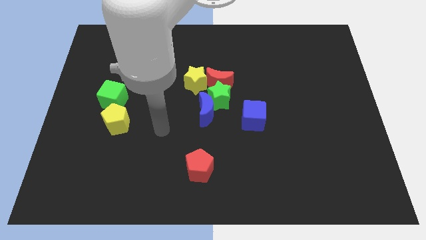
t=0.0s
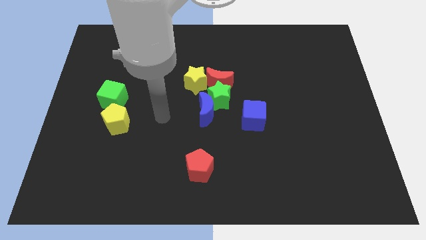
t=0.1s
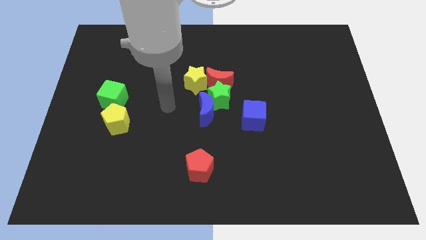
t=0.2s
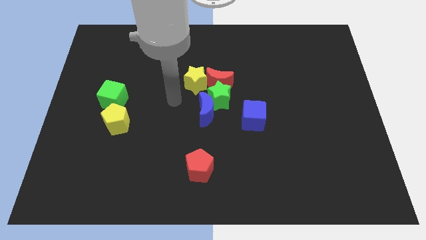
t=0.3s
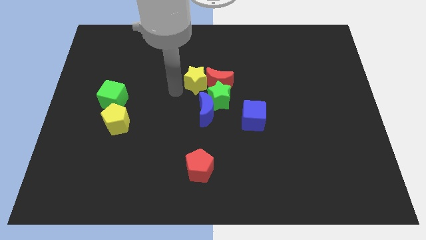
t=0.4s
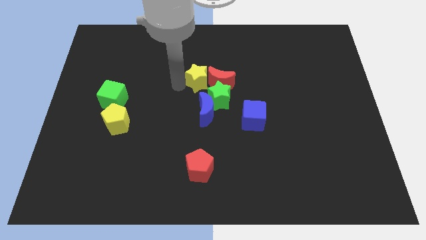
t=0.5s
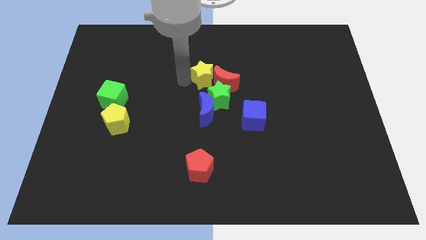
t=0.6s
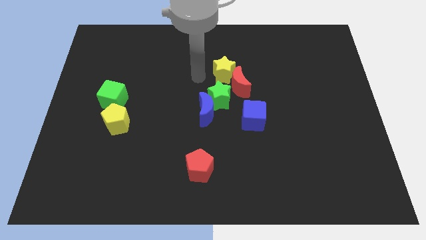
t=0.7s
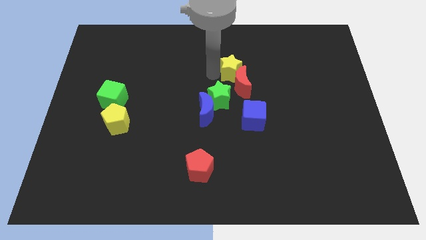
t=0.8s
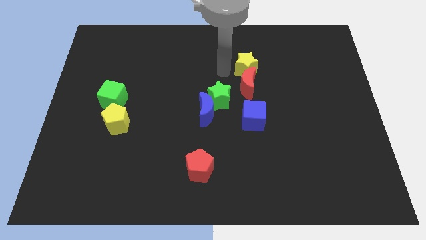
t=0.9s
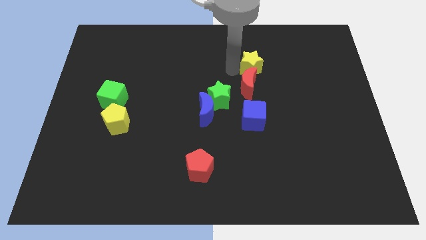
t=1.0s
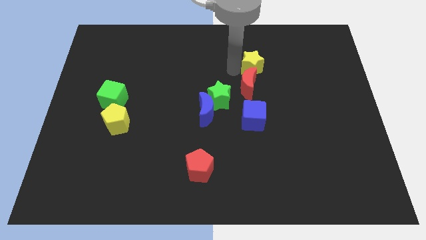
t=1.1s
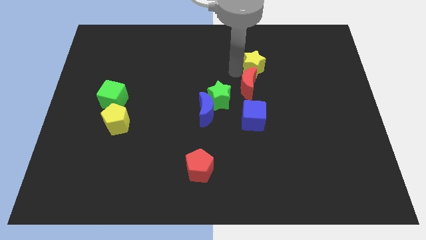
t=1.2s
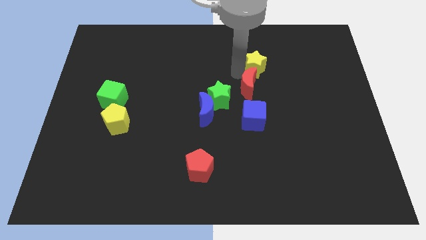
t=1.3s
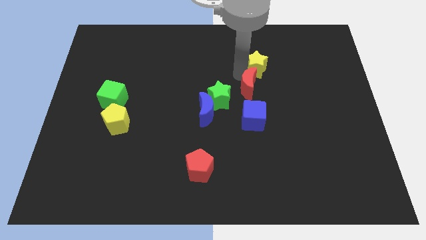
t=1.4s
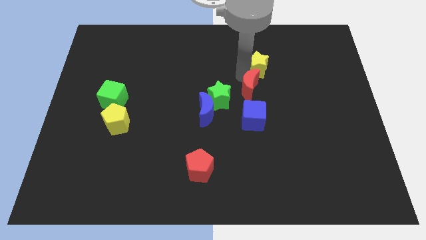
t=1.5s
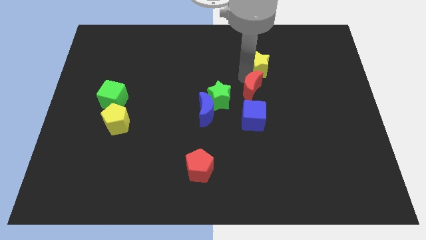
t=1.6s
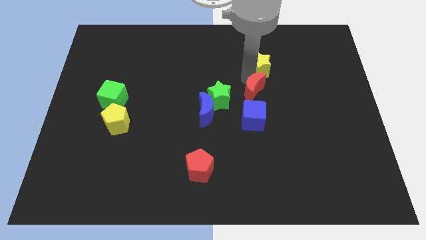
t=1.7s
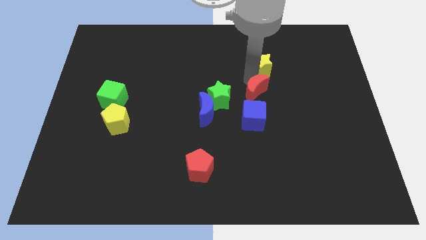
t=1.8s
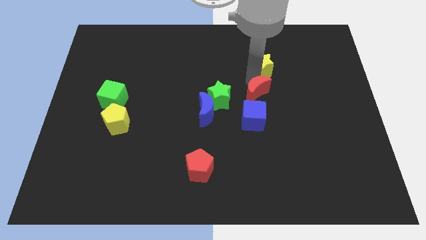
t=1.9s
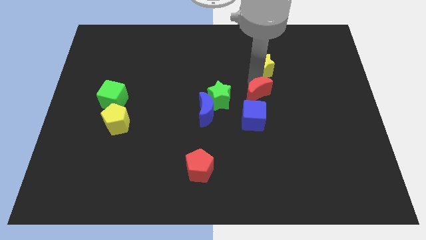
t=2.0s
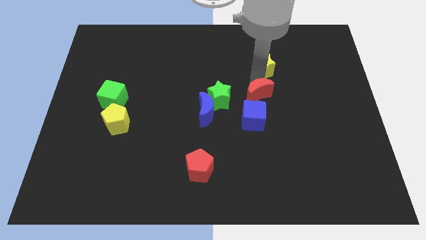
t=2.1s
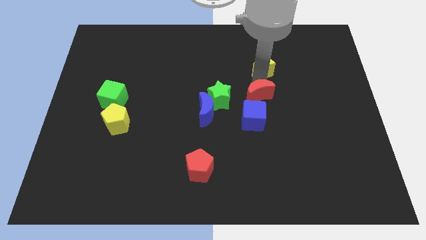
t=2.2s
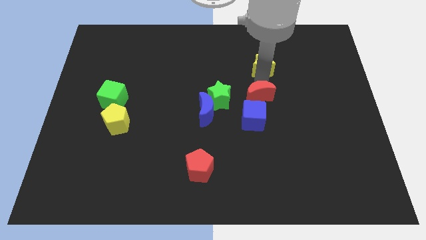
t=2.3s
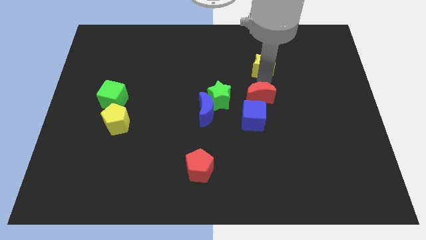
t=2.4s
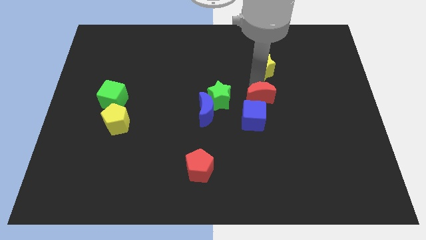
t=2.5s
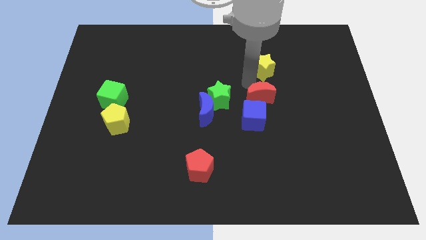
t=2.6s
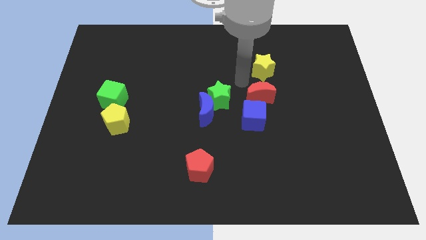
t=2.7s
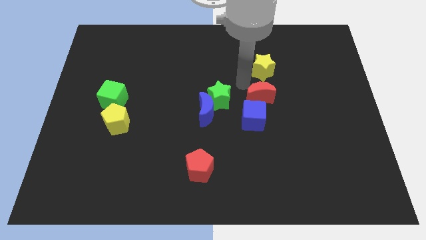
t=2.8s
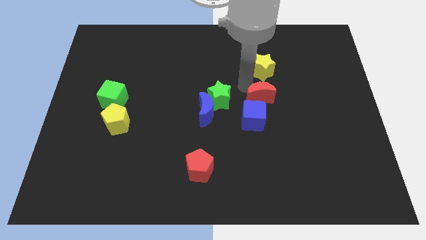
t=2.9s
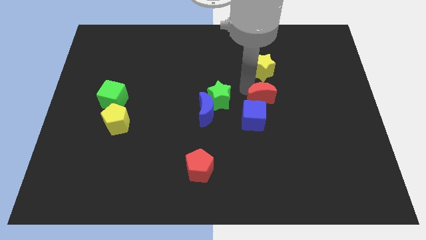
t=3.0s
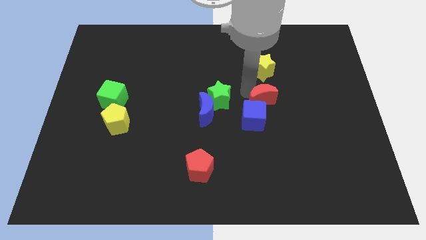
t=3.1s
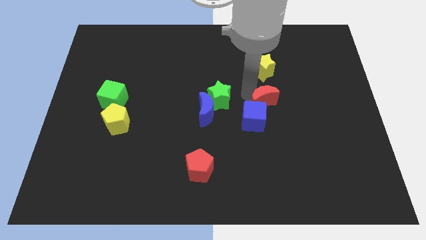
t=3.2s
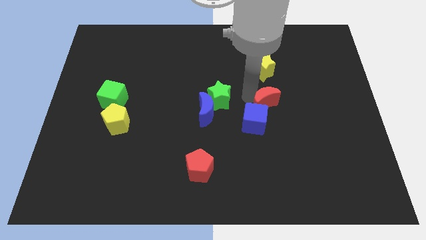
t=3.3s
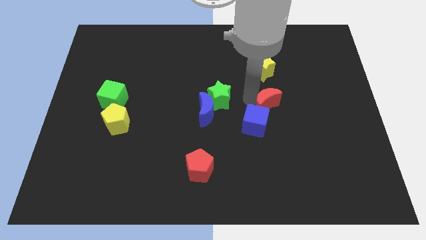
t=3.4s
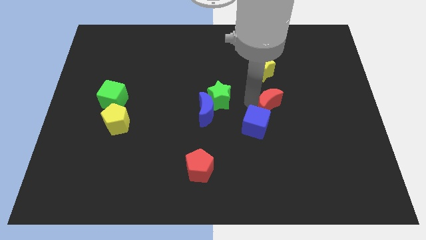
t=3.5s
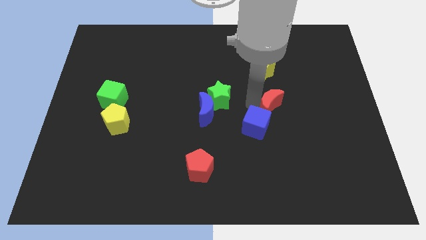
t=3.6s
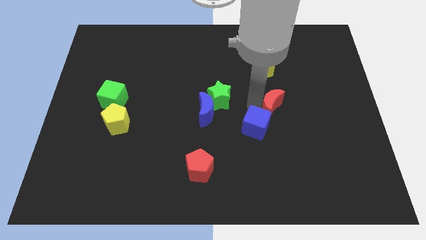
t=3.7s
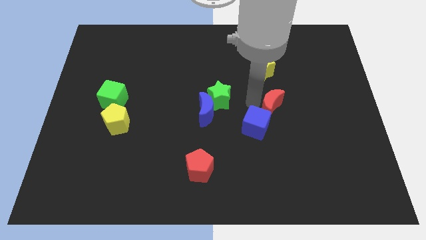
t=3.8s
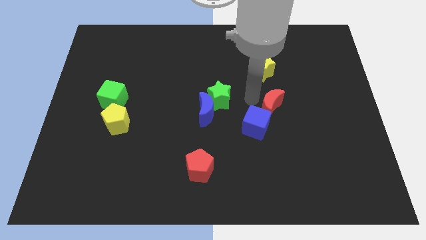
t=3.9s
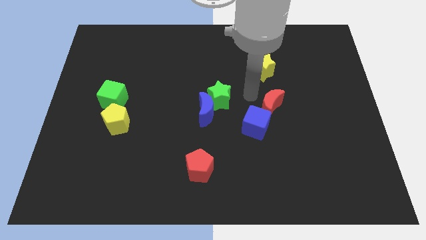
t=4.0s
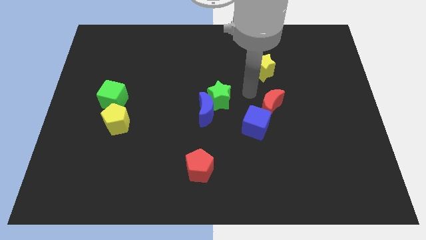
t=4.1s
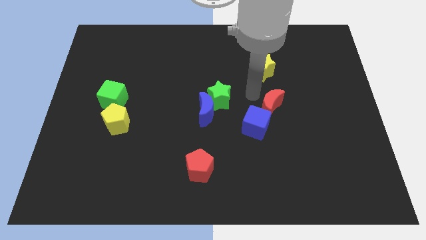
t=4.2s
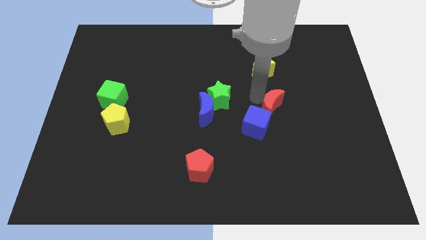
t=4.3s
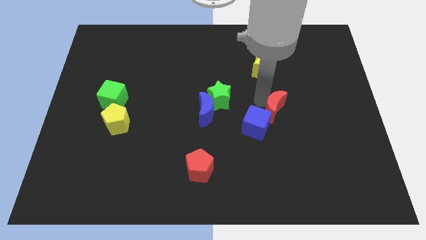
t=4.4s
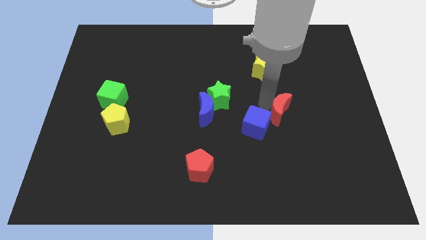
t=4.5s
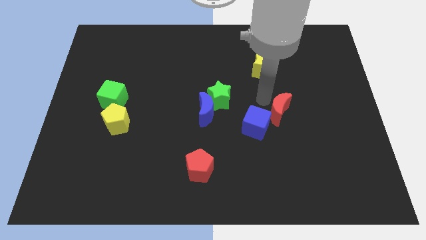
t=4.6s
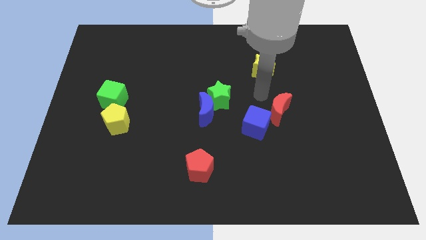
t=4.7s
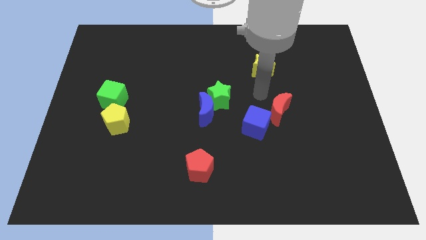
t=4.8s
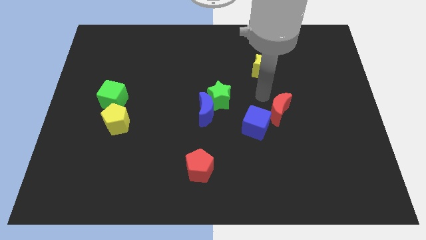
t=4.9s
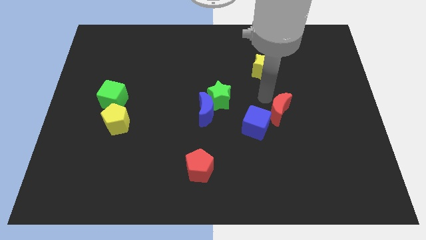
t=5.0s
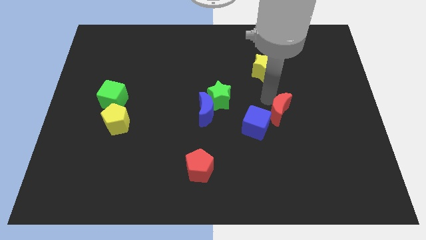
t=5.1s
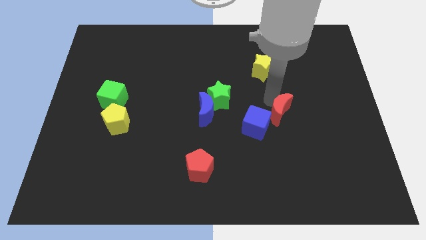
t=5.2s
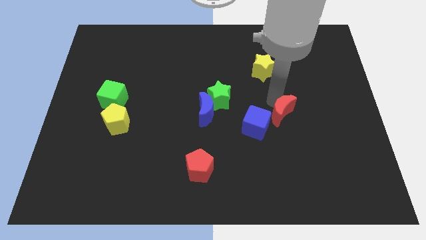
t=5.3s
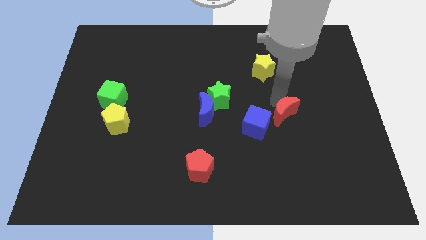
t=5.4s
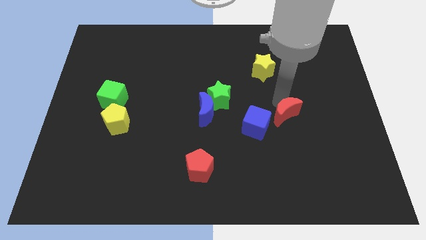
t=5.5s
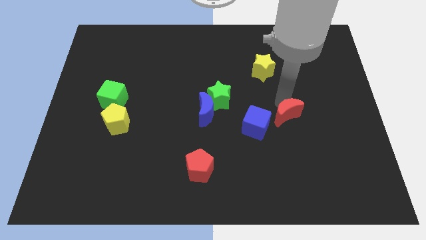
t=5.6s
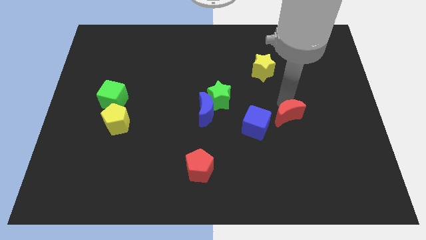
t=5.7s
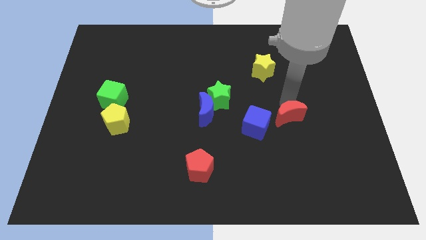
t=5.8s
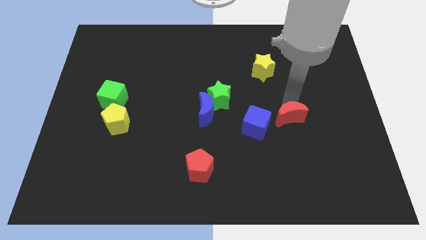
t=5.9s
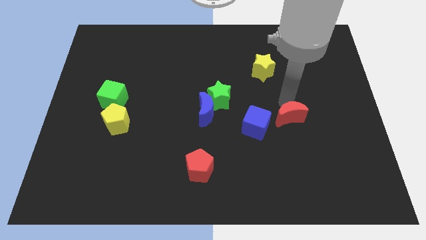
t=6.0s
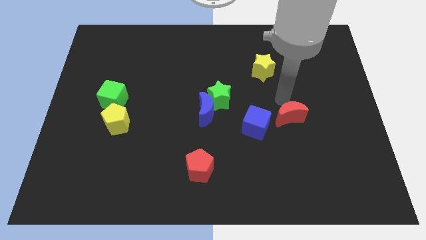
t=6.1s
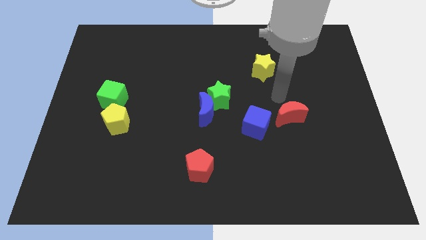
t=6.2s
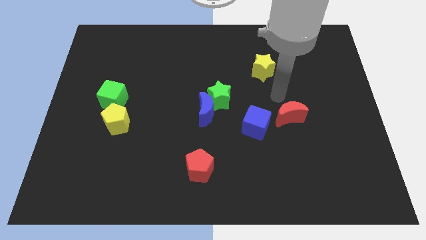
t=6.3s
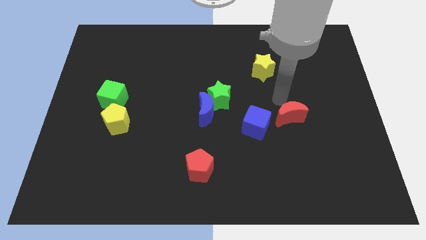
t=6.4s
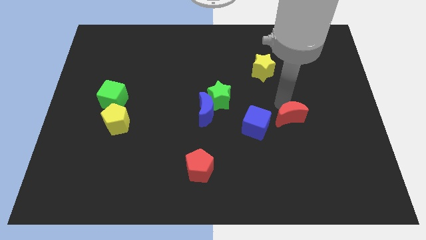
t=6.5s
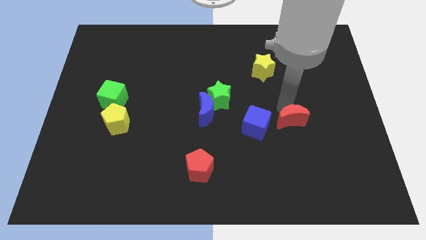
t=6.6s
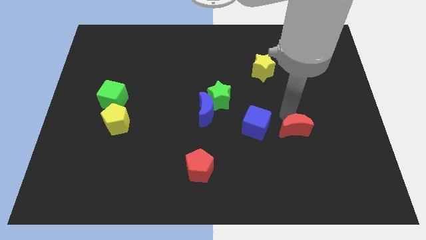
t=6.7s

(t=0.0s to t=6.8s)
move the red moon downwards and to the right

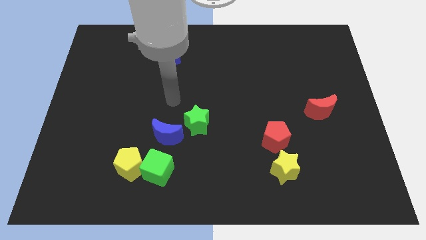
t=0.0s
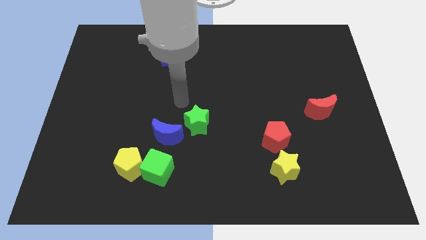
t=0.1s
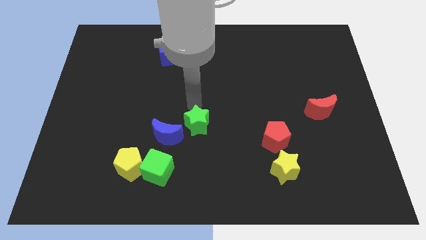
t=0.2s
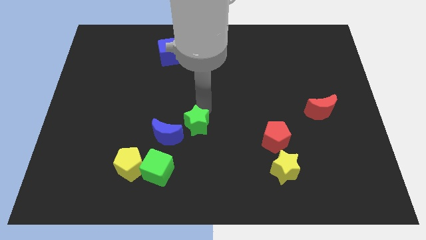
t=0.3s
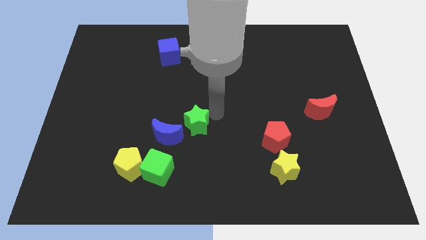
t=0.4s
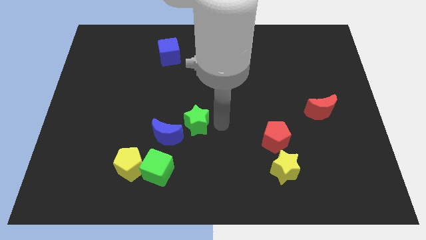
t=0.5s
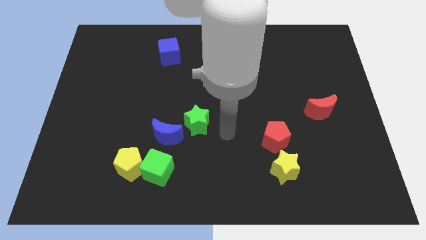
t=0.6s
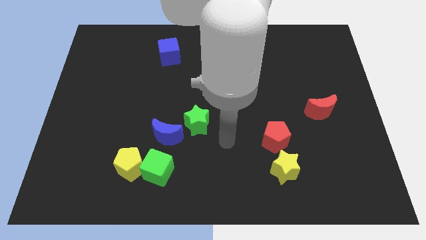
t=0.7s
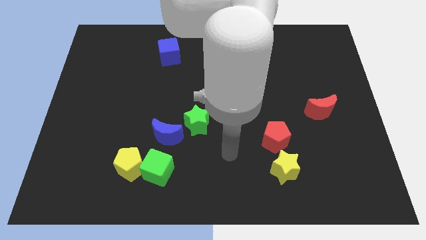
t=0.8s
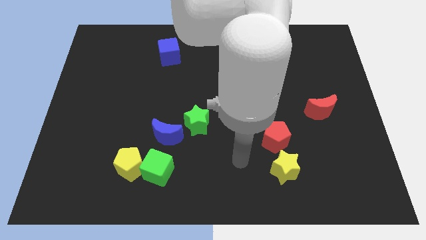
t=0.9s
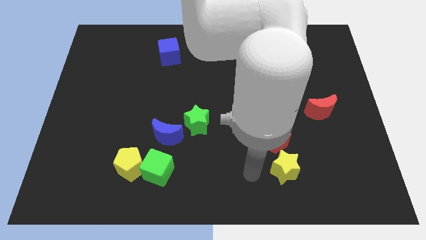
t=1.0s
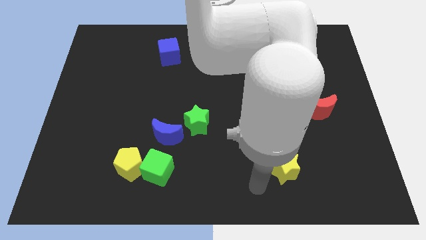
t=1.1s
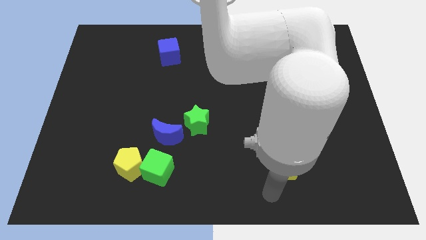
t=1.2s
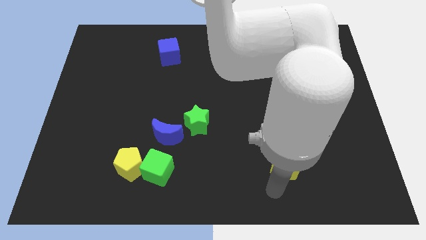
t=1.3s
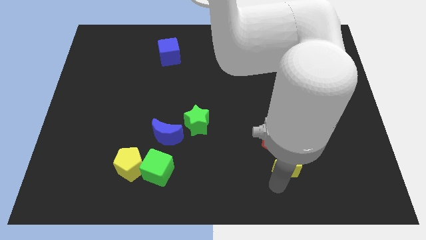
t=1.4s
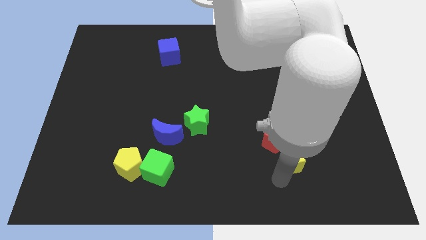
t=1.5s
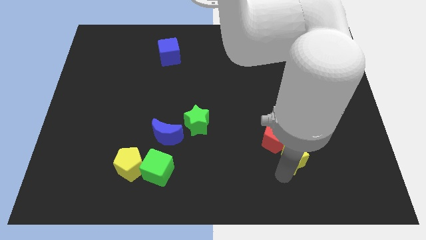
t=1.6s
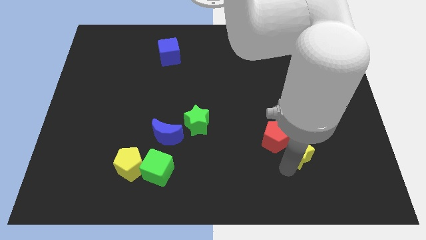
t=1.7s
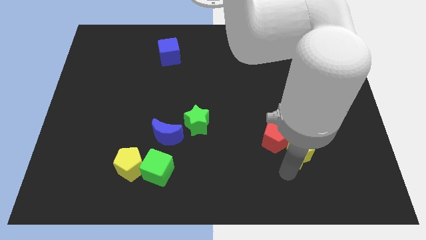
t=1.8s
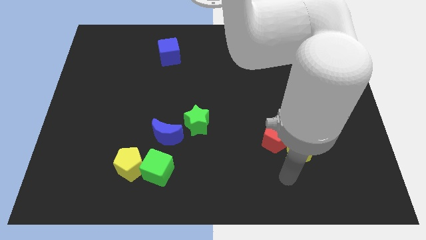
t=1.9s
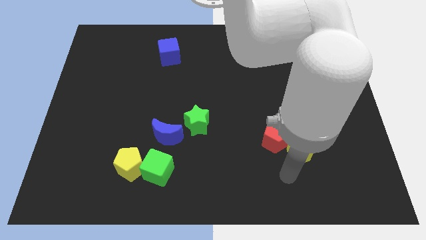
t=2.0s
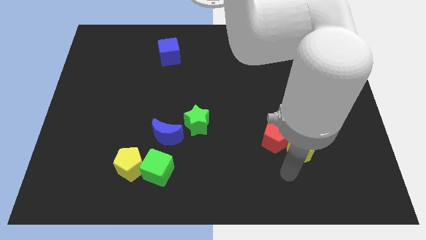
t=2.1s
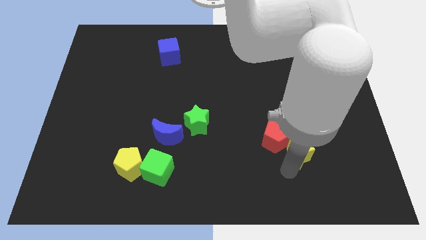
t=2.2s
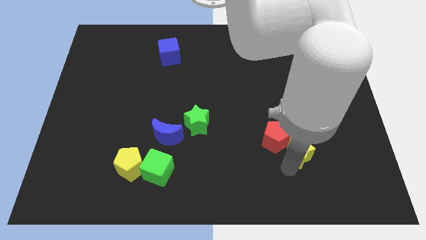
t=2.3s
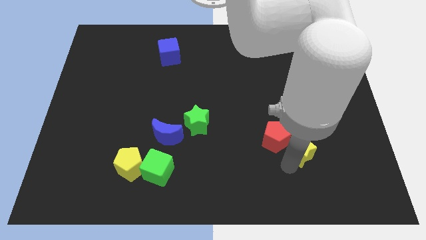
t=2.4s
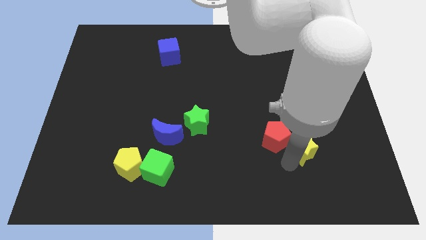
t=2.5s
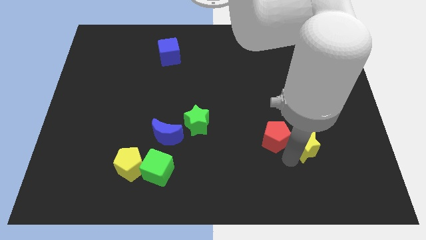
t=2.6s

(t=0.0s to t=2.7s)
push the yellow star up and right slightly
